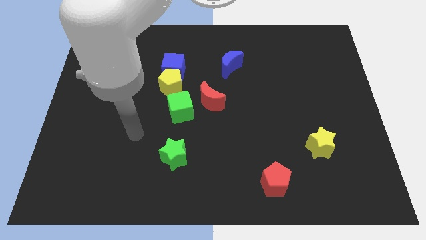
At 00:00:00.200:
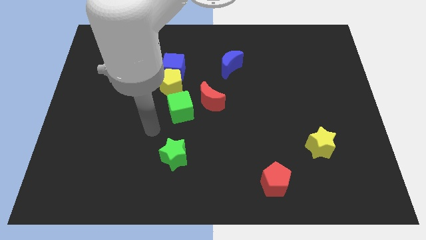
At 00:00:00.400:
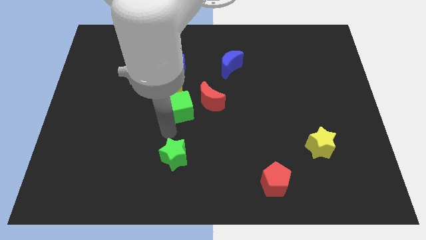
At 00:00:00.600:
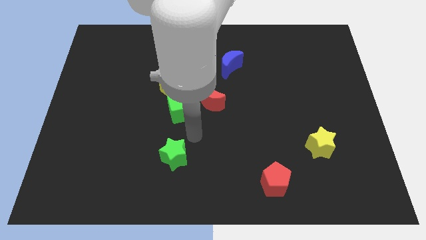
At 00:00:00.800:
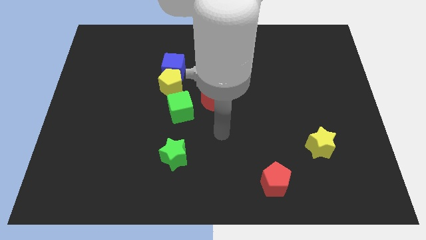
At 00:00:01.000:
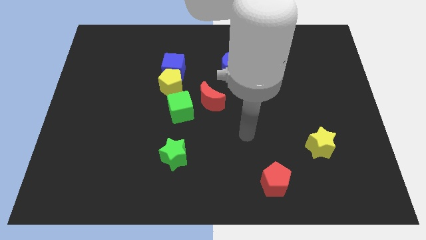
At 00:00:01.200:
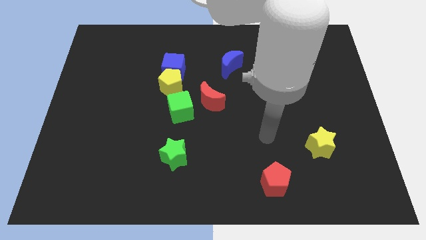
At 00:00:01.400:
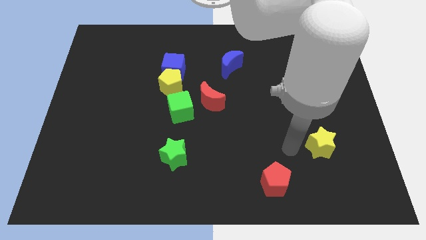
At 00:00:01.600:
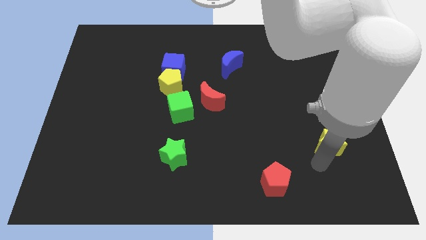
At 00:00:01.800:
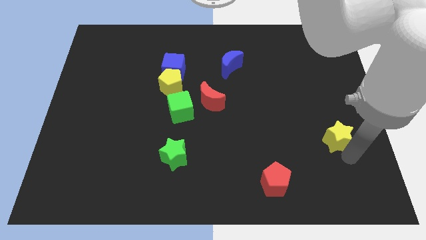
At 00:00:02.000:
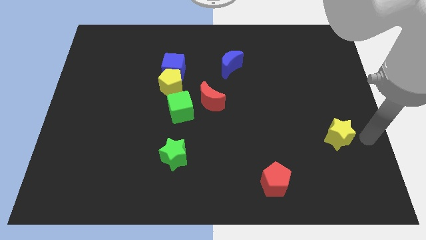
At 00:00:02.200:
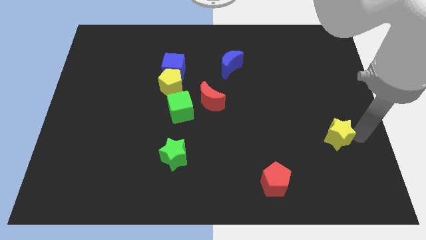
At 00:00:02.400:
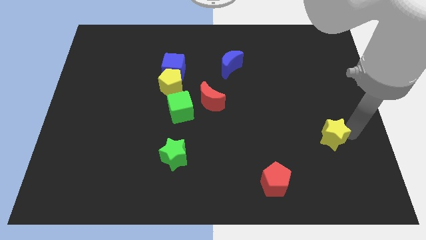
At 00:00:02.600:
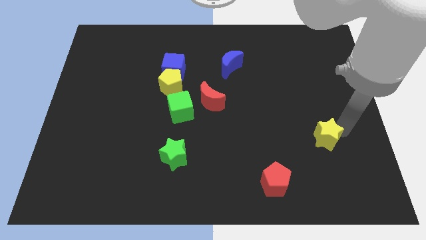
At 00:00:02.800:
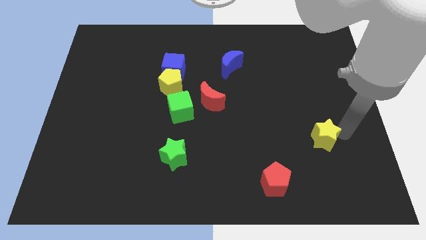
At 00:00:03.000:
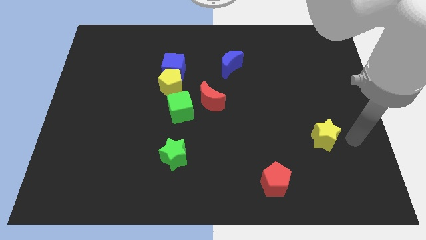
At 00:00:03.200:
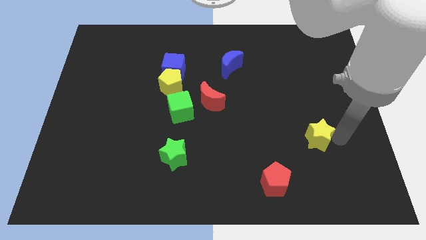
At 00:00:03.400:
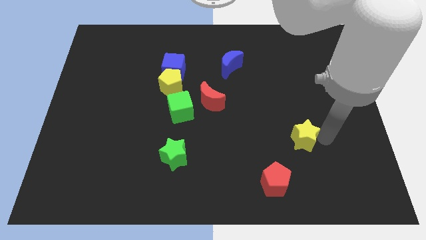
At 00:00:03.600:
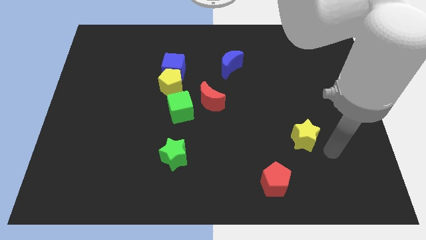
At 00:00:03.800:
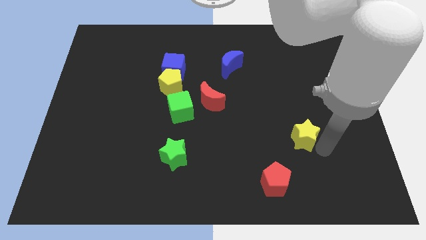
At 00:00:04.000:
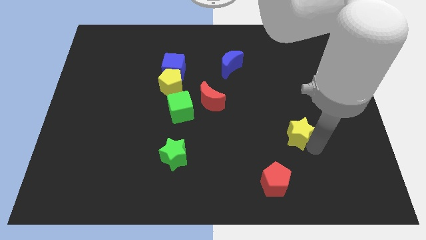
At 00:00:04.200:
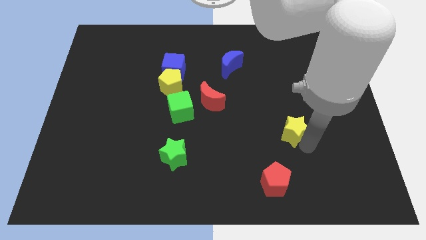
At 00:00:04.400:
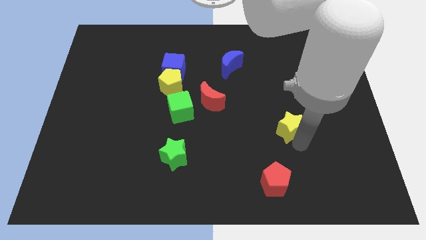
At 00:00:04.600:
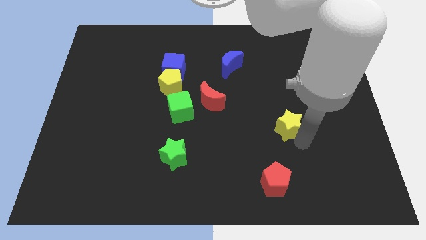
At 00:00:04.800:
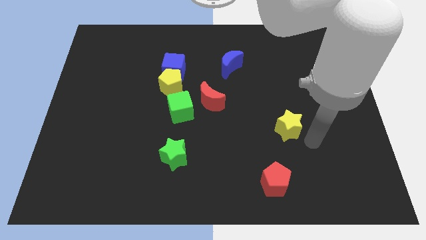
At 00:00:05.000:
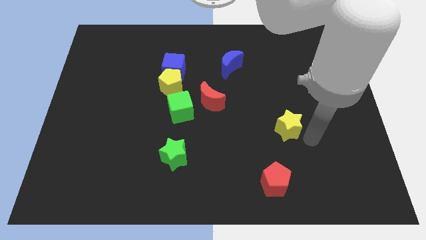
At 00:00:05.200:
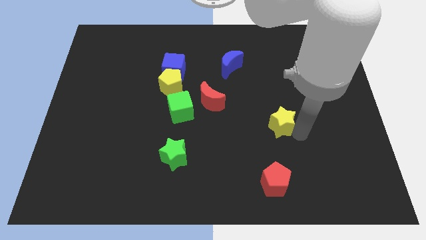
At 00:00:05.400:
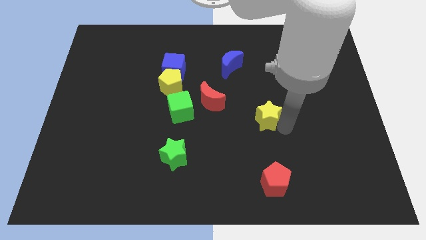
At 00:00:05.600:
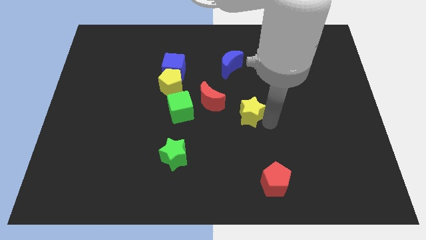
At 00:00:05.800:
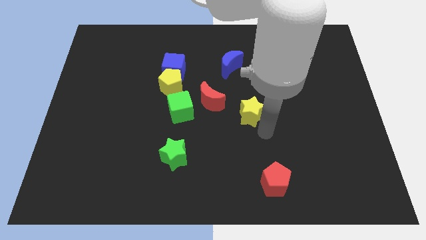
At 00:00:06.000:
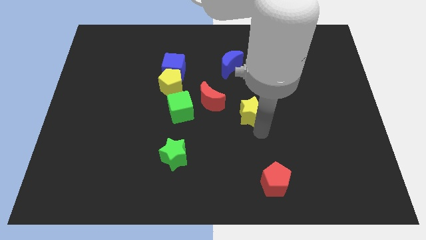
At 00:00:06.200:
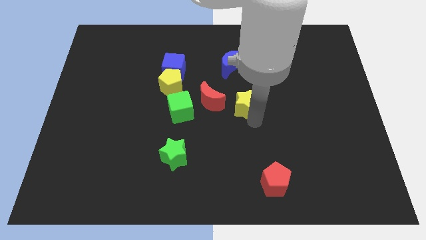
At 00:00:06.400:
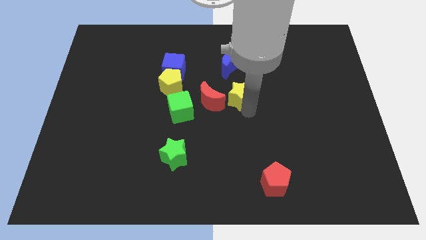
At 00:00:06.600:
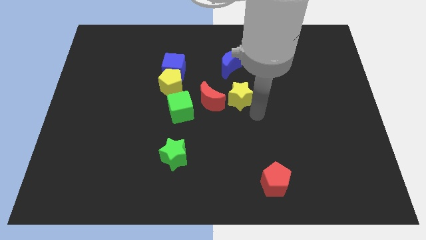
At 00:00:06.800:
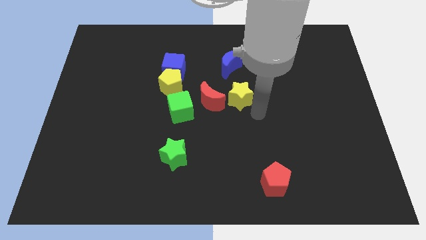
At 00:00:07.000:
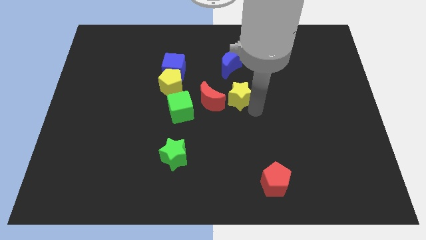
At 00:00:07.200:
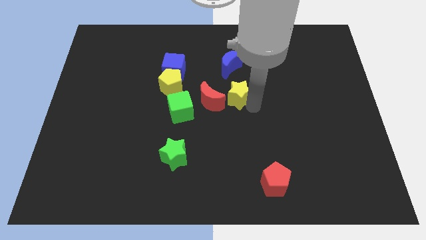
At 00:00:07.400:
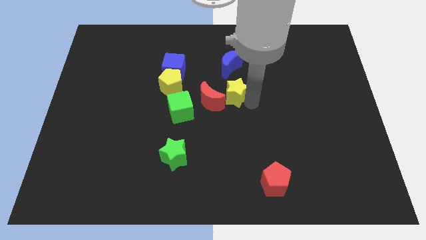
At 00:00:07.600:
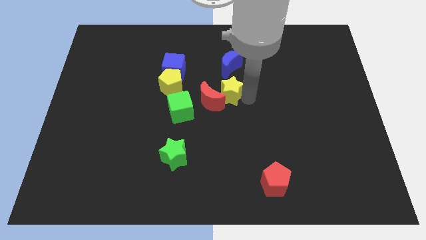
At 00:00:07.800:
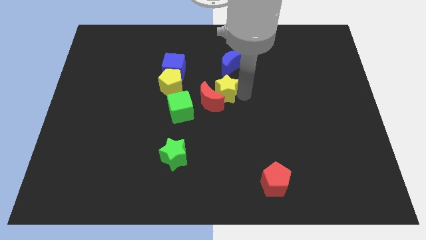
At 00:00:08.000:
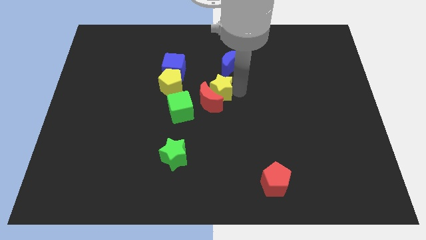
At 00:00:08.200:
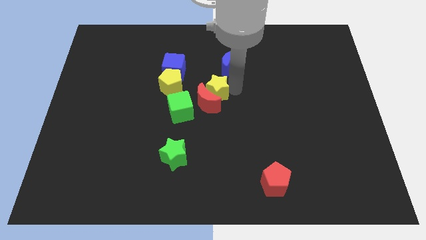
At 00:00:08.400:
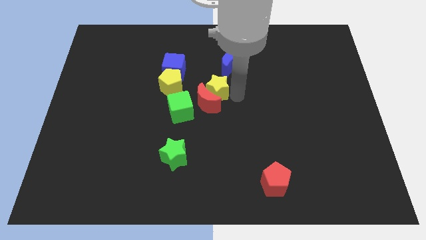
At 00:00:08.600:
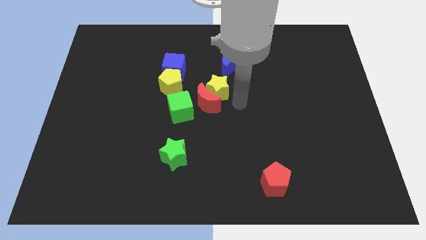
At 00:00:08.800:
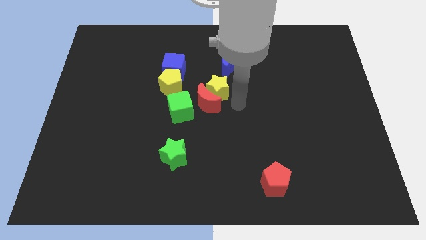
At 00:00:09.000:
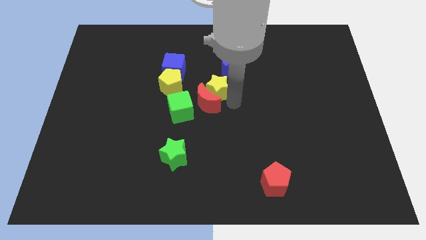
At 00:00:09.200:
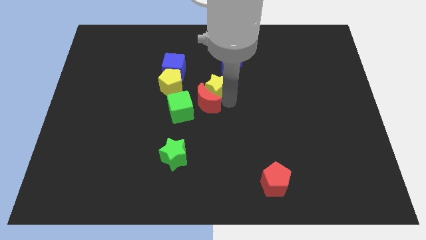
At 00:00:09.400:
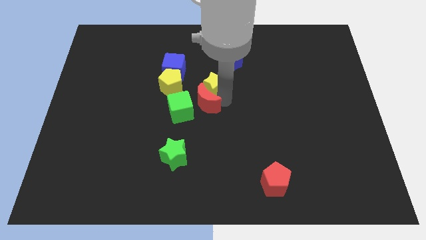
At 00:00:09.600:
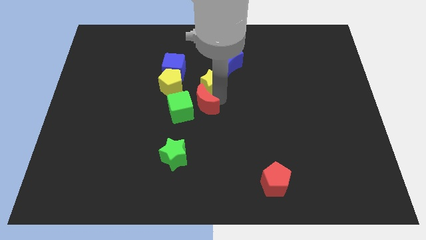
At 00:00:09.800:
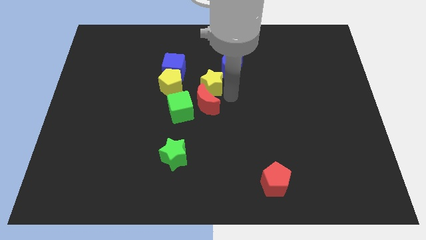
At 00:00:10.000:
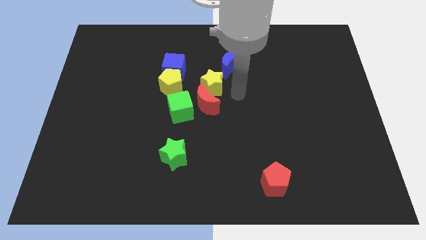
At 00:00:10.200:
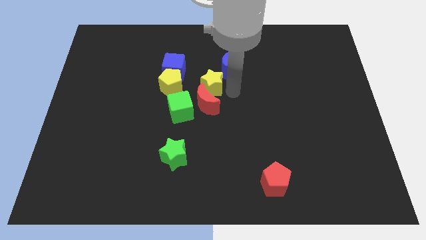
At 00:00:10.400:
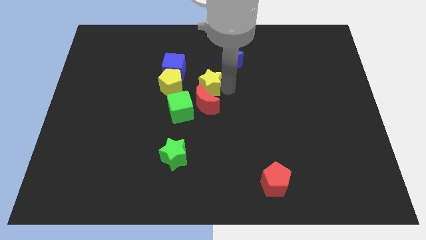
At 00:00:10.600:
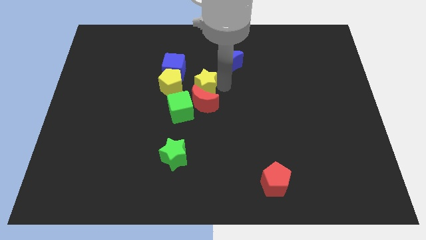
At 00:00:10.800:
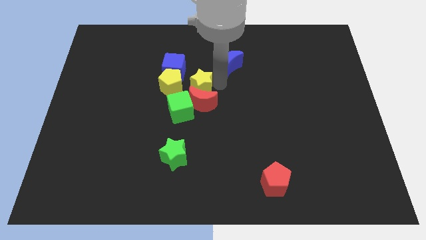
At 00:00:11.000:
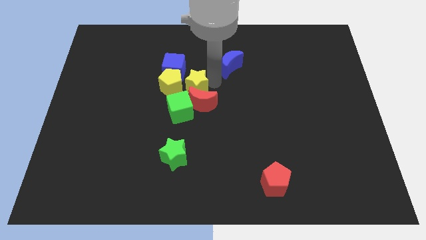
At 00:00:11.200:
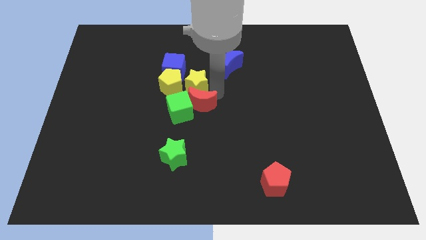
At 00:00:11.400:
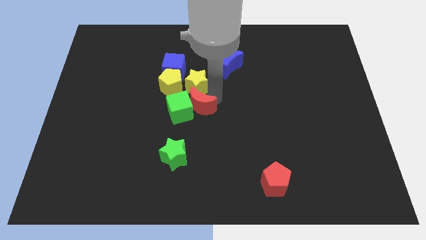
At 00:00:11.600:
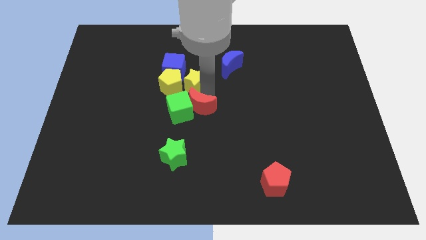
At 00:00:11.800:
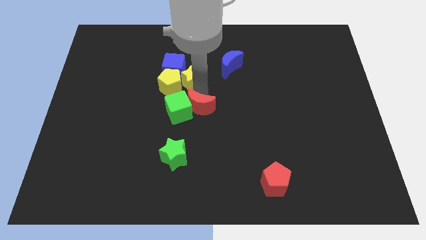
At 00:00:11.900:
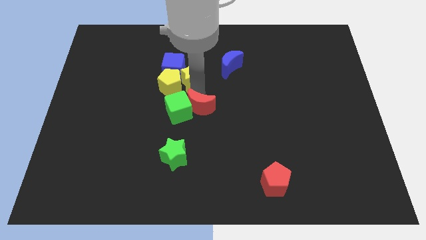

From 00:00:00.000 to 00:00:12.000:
slide the yellow star to the blue cube
